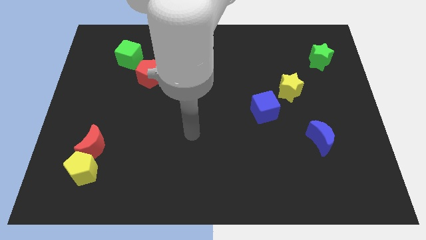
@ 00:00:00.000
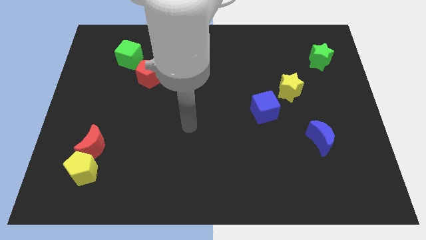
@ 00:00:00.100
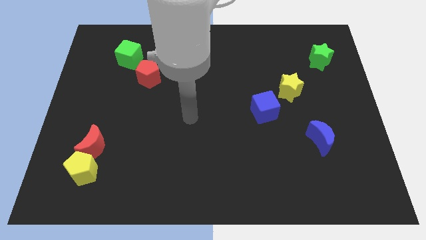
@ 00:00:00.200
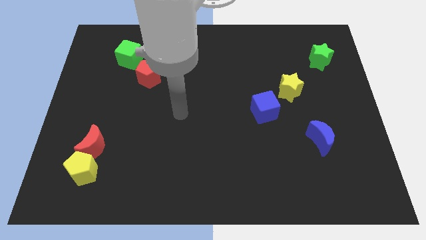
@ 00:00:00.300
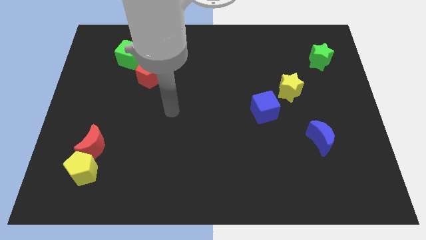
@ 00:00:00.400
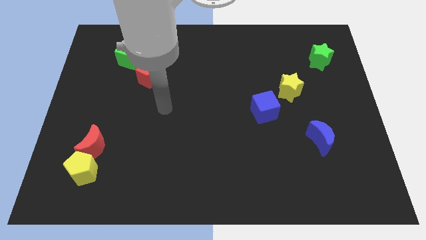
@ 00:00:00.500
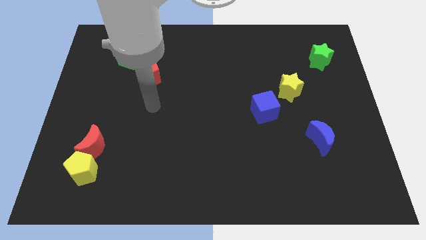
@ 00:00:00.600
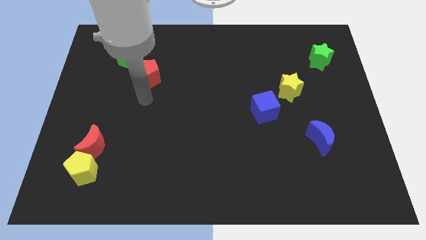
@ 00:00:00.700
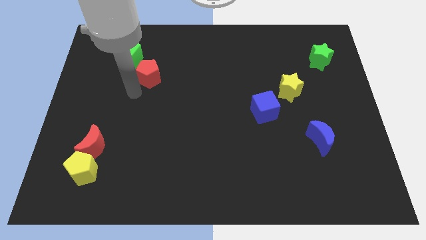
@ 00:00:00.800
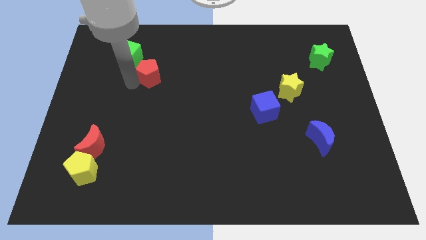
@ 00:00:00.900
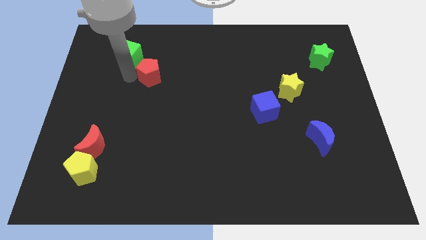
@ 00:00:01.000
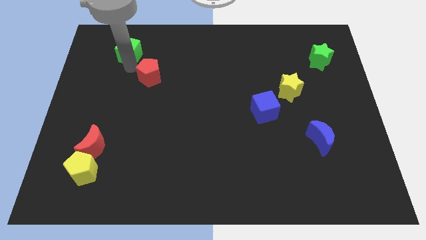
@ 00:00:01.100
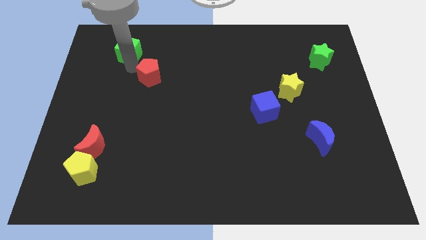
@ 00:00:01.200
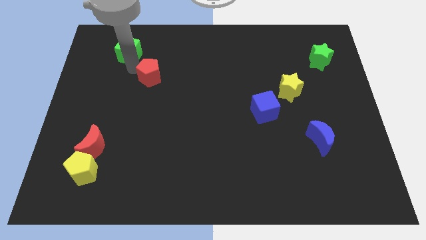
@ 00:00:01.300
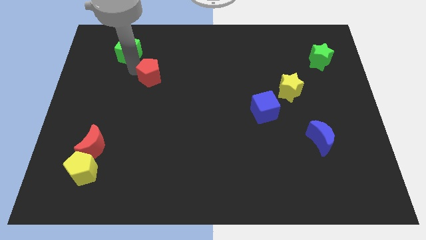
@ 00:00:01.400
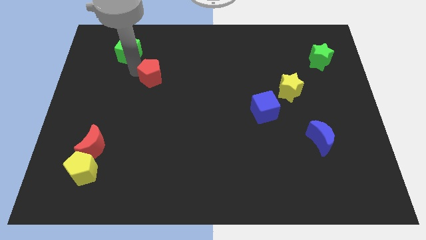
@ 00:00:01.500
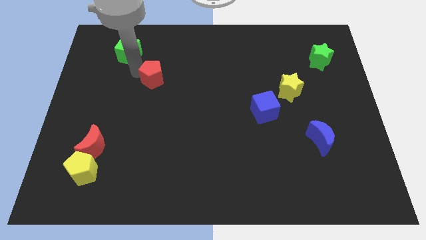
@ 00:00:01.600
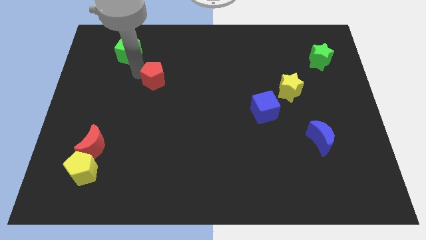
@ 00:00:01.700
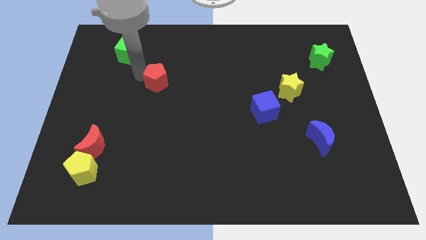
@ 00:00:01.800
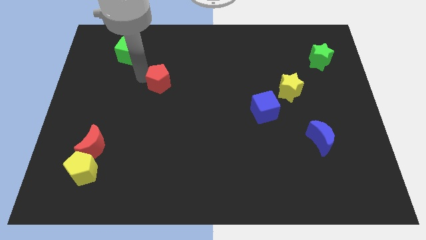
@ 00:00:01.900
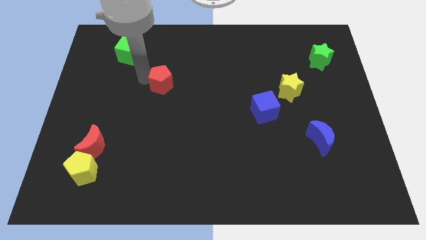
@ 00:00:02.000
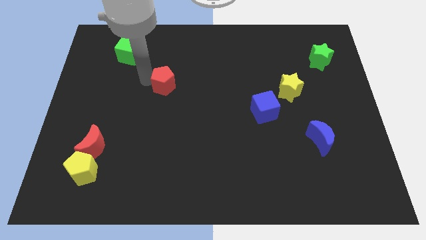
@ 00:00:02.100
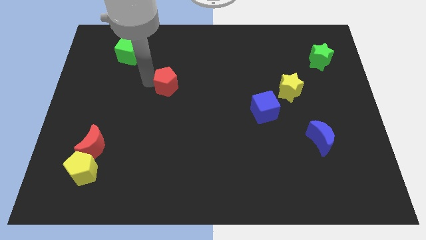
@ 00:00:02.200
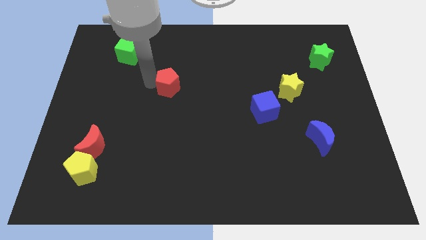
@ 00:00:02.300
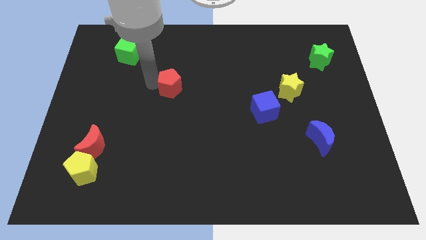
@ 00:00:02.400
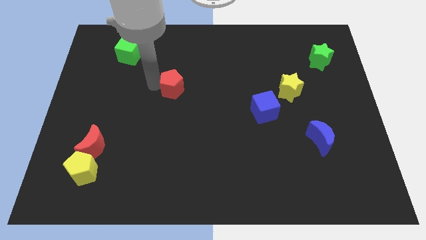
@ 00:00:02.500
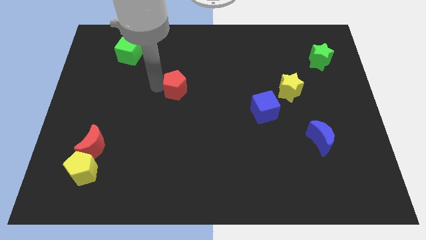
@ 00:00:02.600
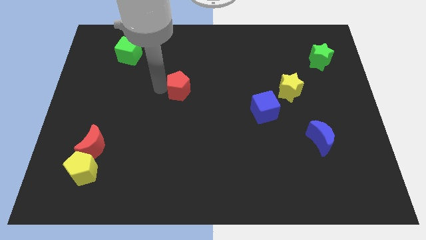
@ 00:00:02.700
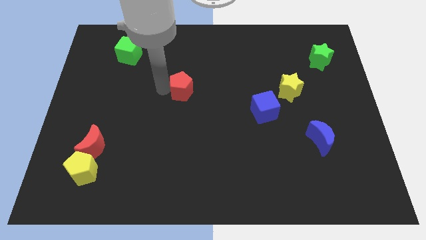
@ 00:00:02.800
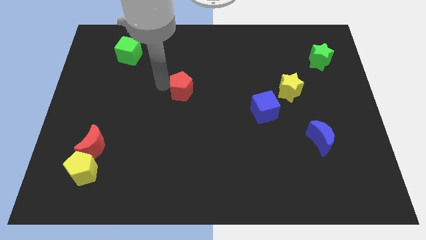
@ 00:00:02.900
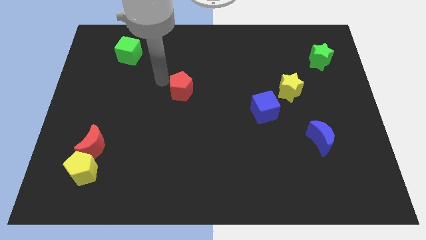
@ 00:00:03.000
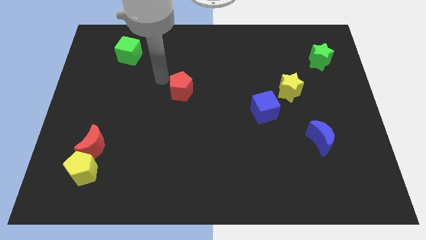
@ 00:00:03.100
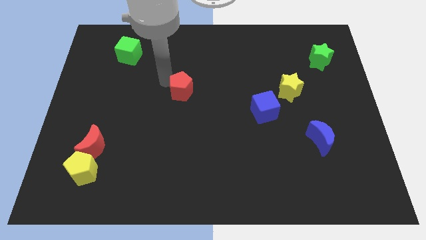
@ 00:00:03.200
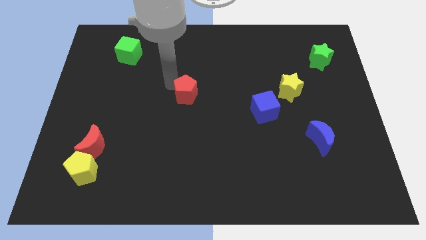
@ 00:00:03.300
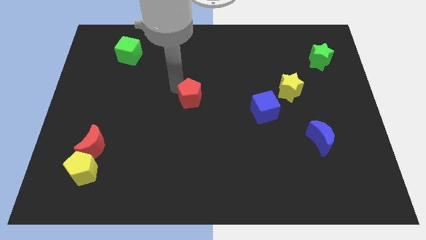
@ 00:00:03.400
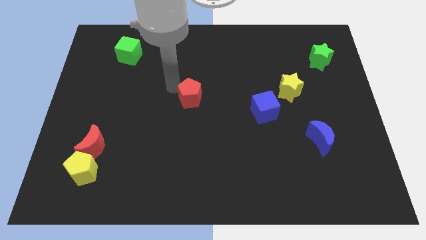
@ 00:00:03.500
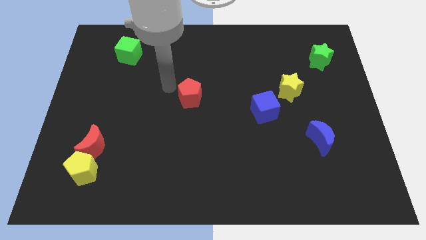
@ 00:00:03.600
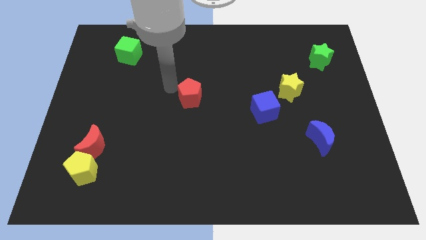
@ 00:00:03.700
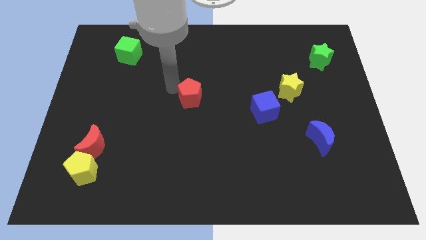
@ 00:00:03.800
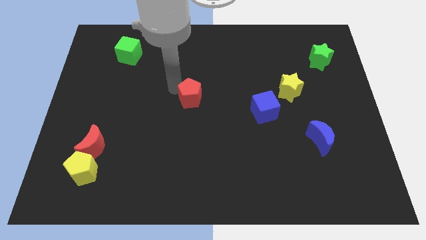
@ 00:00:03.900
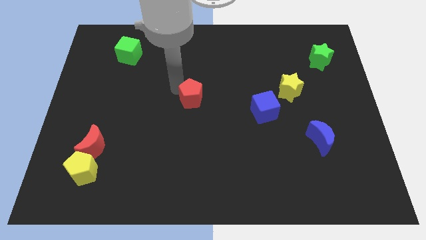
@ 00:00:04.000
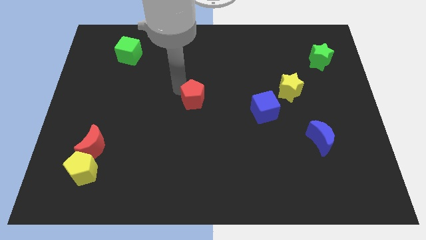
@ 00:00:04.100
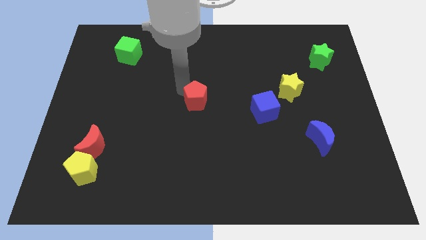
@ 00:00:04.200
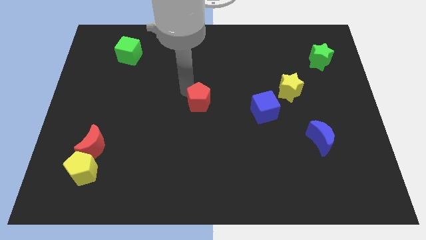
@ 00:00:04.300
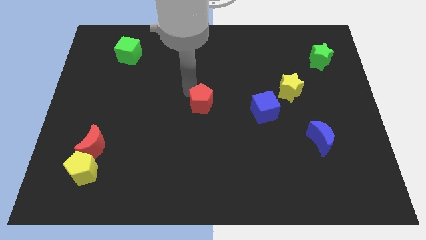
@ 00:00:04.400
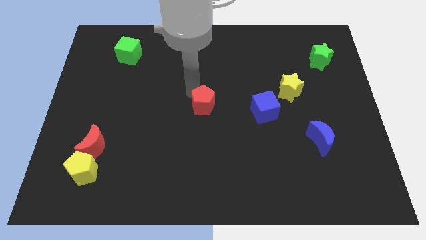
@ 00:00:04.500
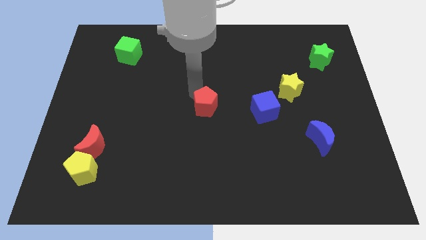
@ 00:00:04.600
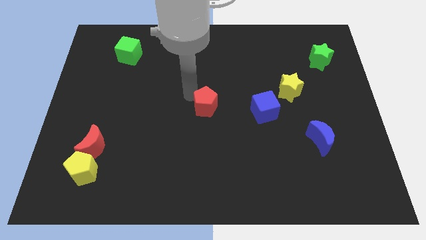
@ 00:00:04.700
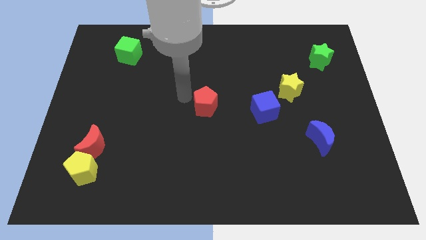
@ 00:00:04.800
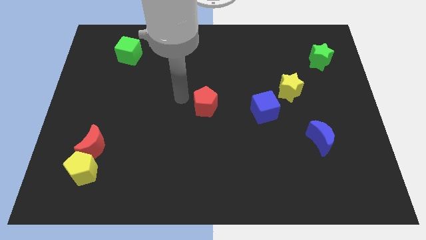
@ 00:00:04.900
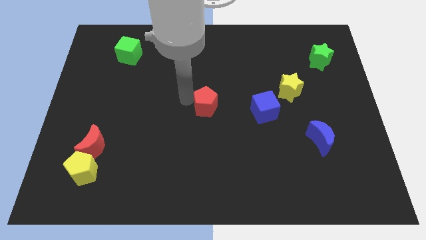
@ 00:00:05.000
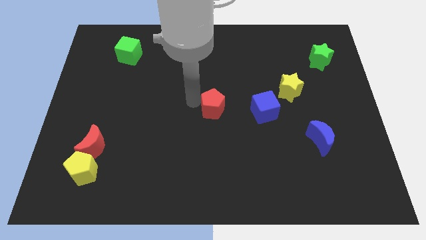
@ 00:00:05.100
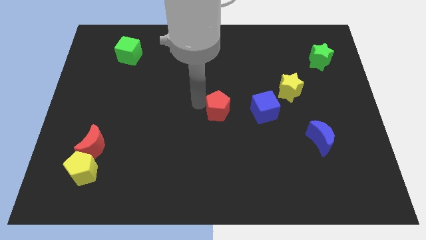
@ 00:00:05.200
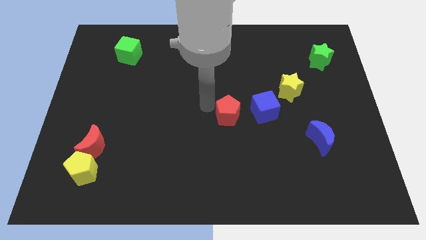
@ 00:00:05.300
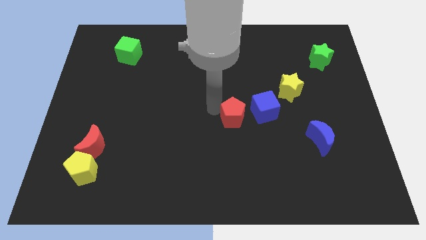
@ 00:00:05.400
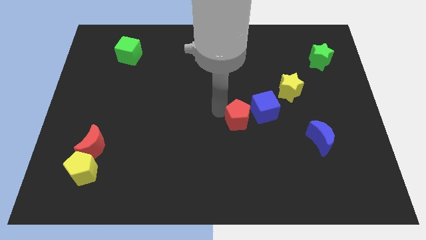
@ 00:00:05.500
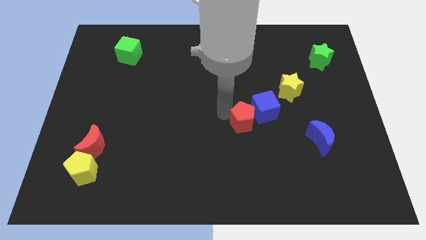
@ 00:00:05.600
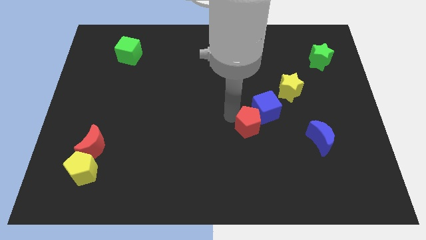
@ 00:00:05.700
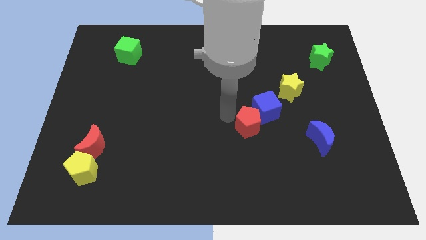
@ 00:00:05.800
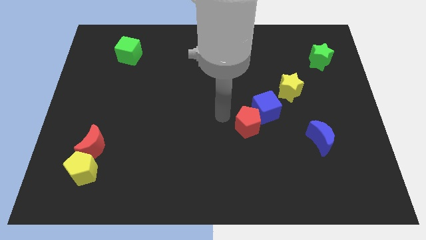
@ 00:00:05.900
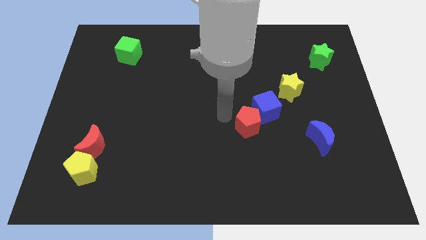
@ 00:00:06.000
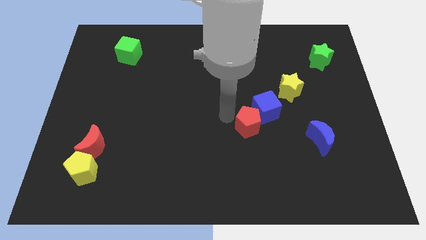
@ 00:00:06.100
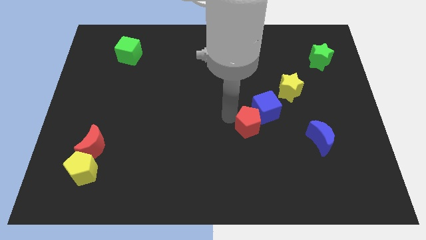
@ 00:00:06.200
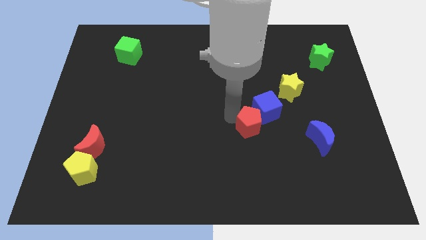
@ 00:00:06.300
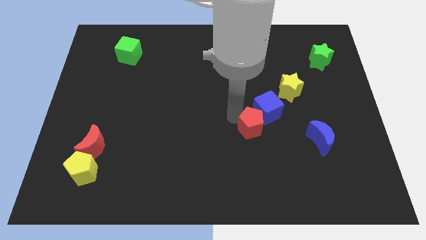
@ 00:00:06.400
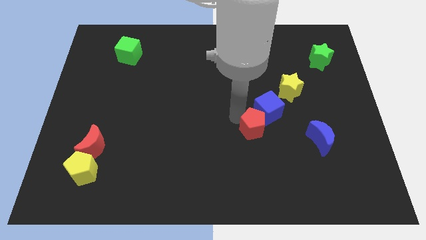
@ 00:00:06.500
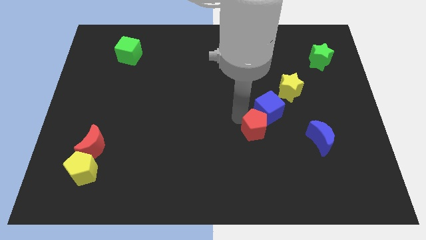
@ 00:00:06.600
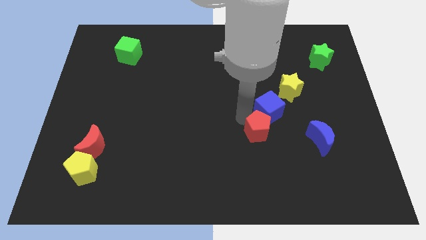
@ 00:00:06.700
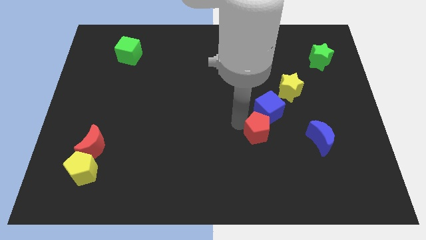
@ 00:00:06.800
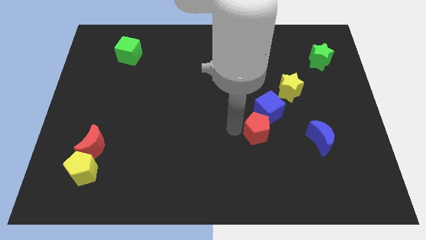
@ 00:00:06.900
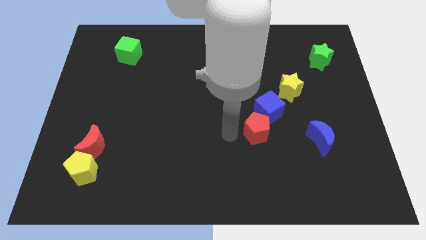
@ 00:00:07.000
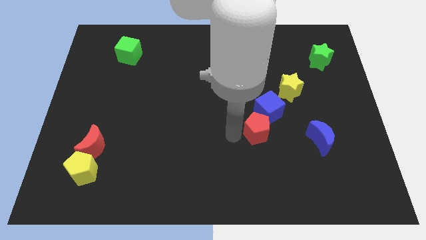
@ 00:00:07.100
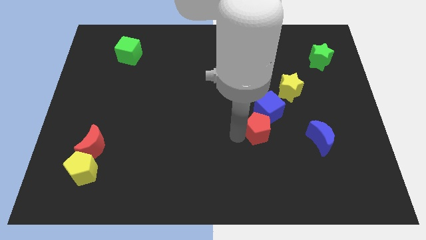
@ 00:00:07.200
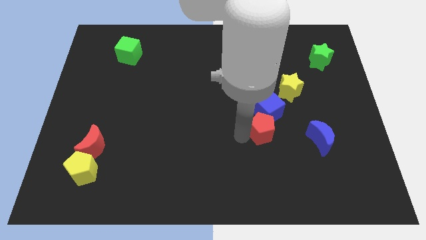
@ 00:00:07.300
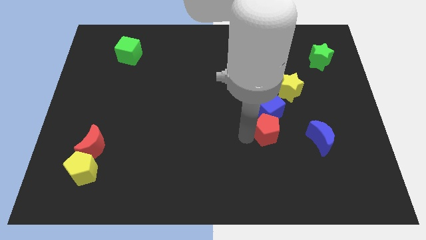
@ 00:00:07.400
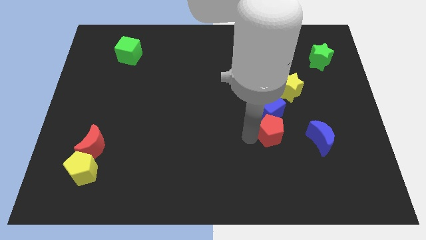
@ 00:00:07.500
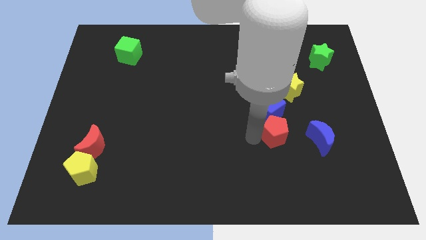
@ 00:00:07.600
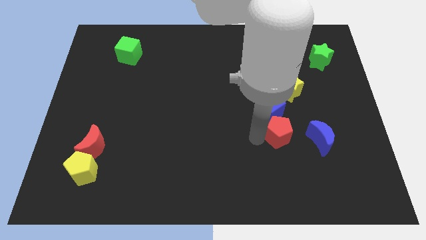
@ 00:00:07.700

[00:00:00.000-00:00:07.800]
push the red pentagon below the yellow star
